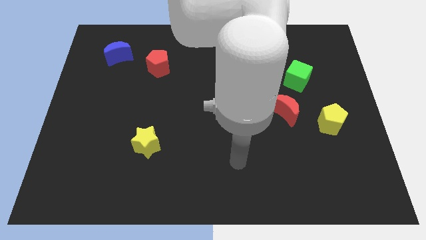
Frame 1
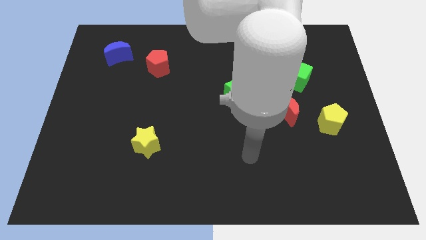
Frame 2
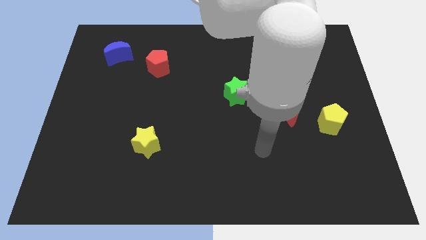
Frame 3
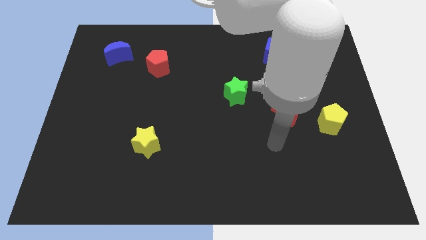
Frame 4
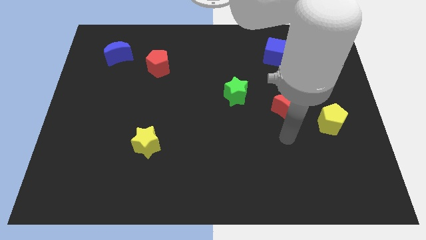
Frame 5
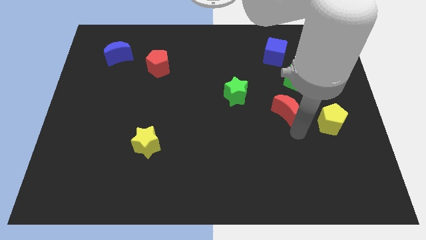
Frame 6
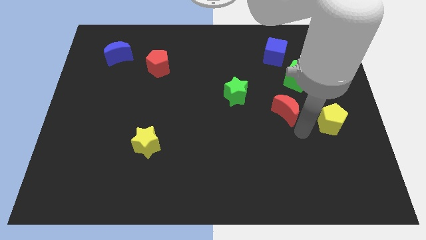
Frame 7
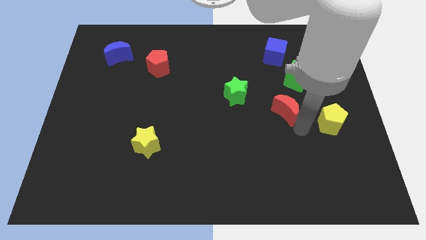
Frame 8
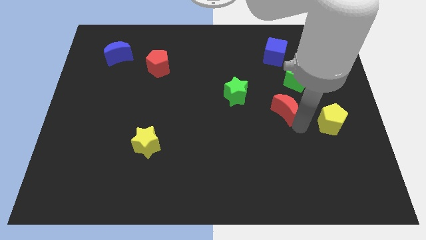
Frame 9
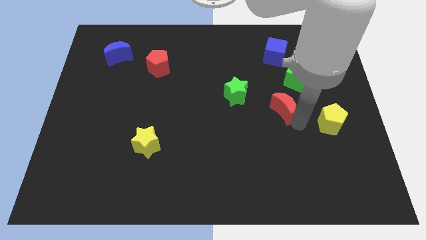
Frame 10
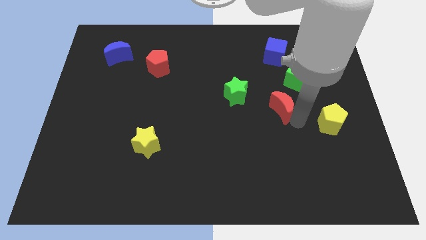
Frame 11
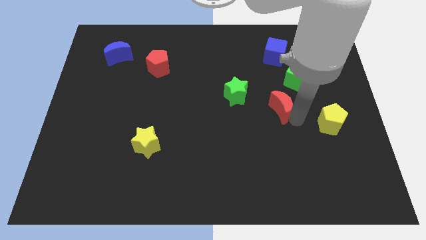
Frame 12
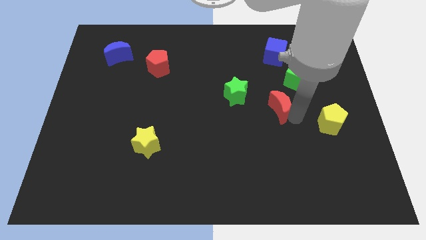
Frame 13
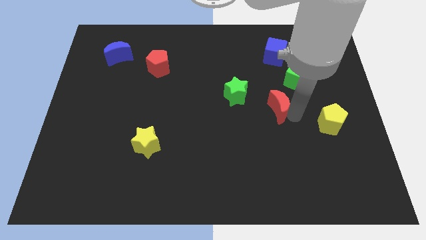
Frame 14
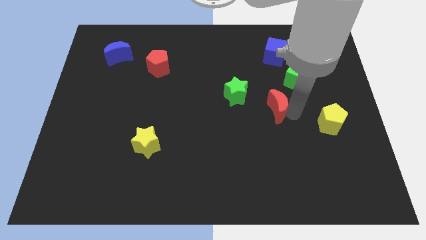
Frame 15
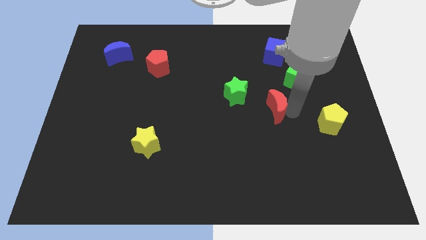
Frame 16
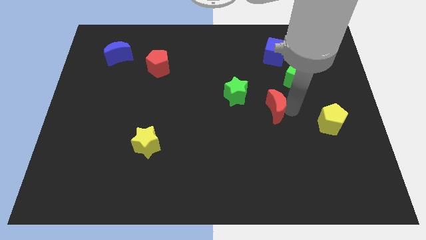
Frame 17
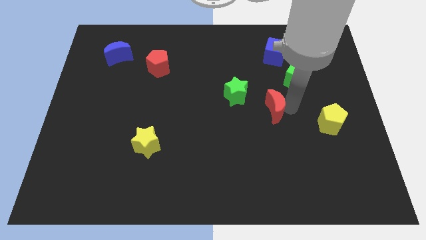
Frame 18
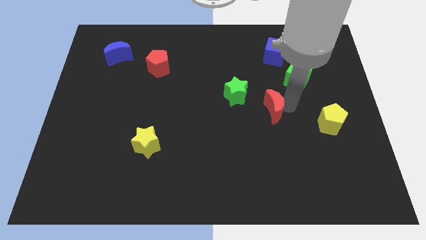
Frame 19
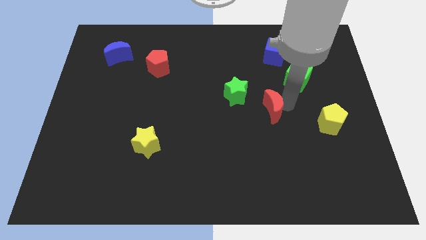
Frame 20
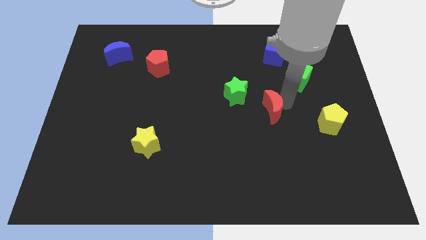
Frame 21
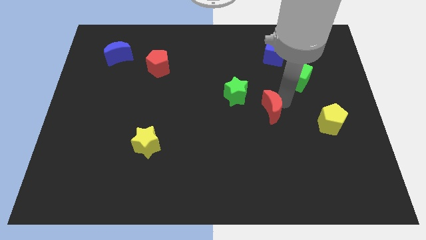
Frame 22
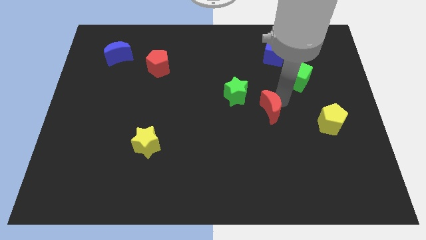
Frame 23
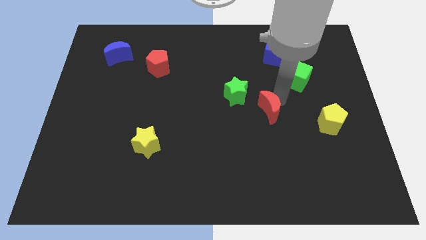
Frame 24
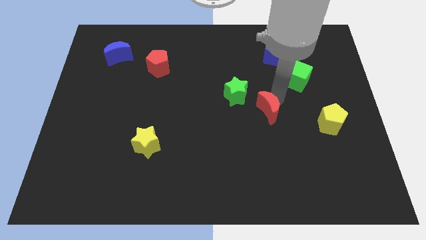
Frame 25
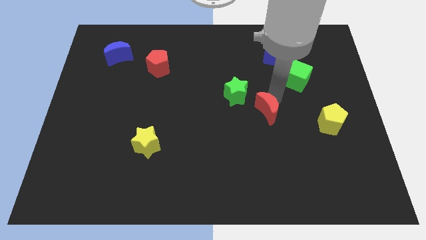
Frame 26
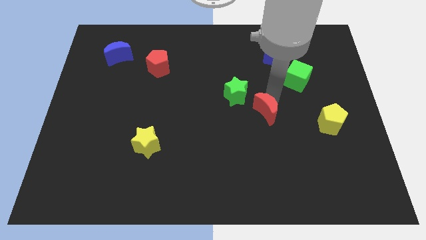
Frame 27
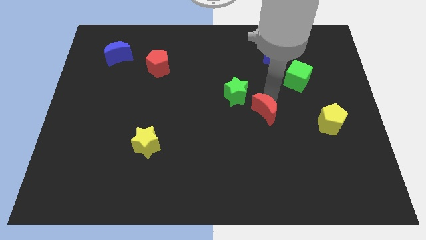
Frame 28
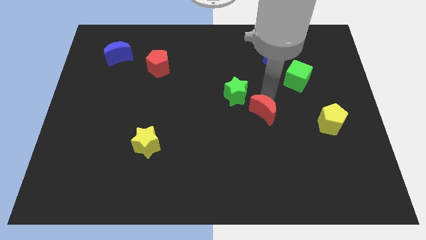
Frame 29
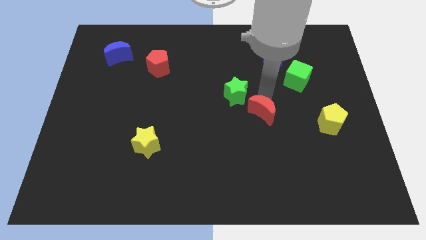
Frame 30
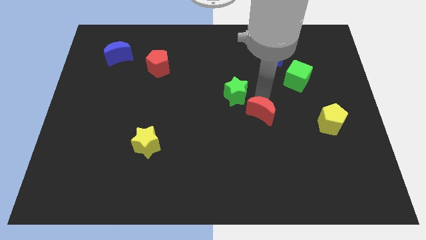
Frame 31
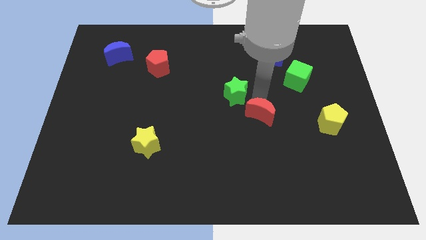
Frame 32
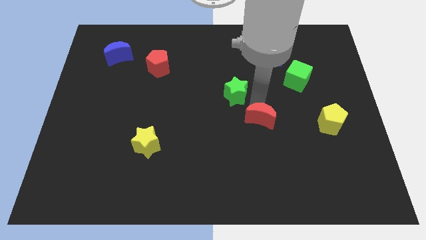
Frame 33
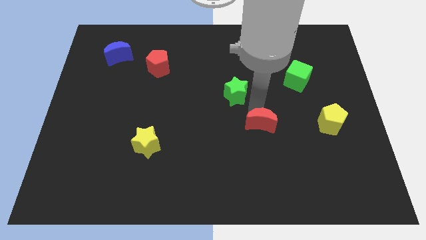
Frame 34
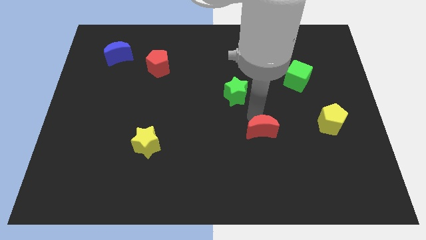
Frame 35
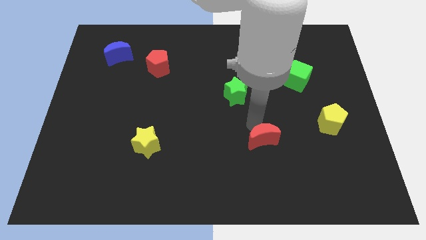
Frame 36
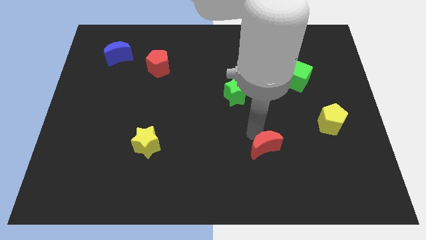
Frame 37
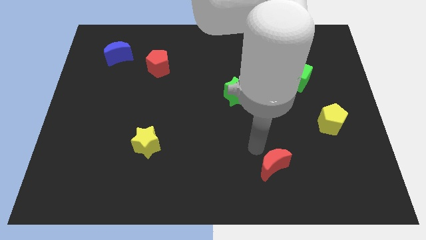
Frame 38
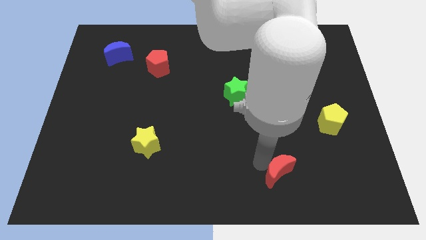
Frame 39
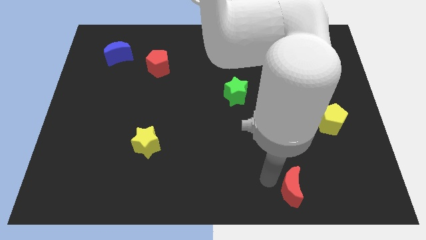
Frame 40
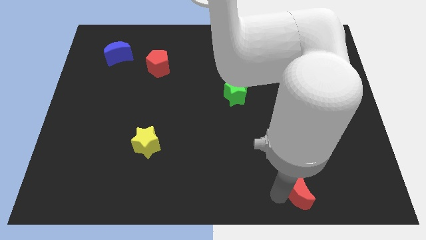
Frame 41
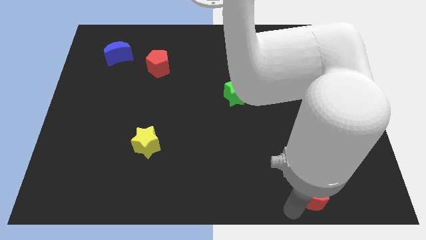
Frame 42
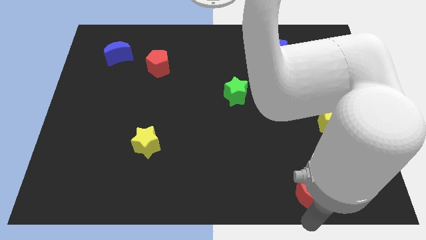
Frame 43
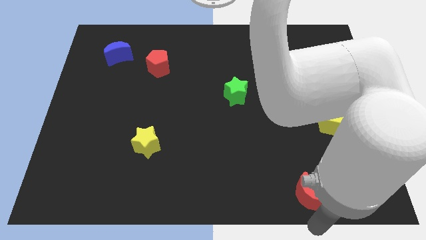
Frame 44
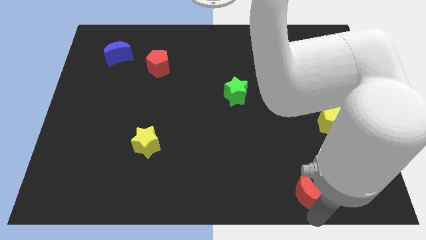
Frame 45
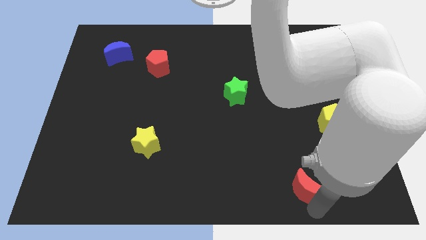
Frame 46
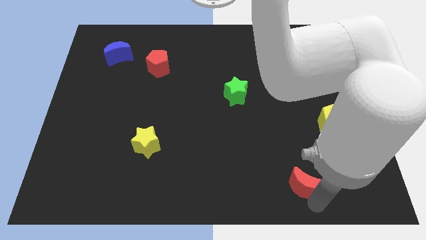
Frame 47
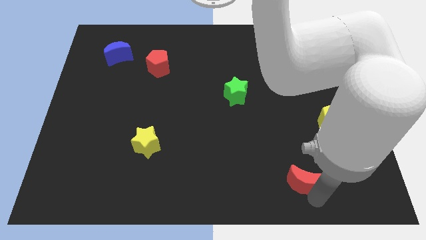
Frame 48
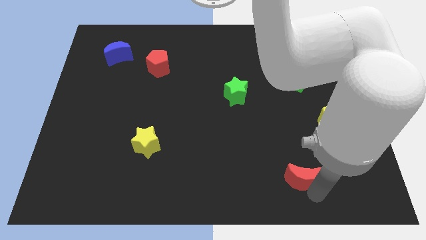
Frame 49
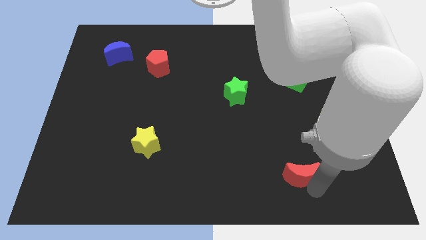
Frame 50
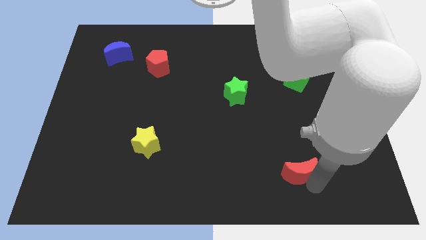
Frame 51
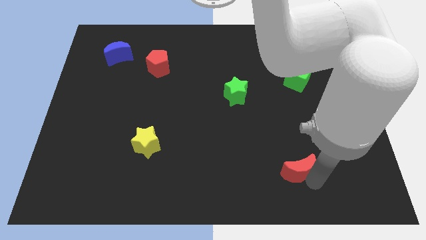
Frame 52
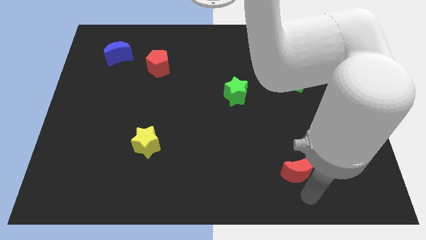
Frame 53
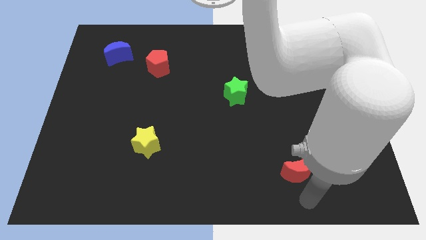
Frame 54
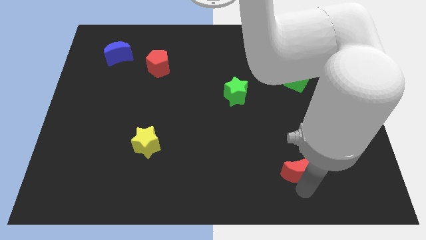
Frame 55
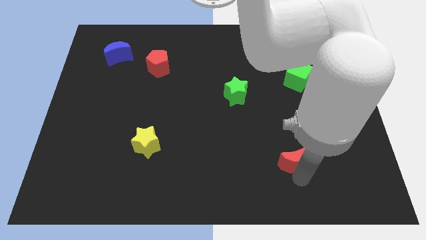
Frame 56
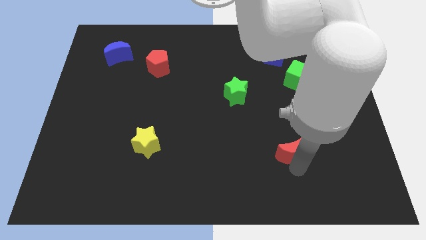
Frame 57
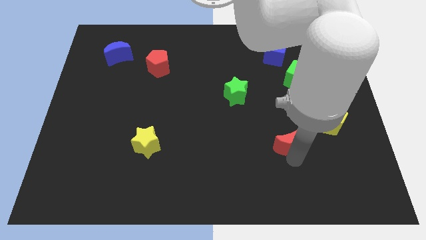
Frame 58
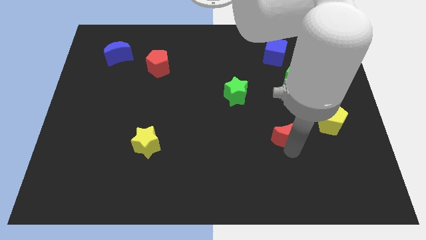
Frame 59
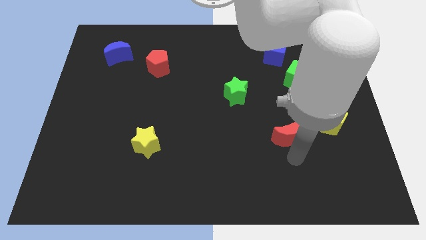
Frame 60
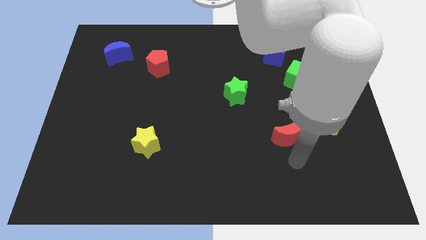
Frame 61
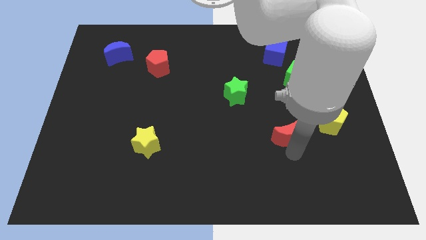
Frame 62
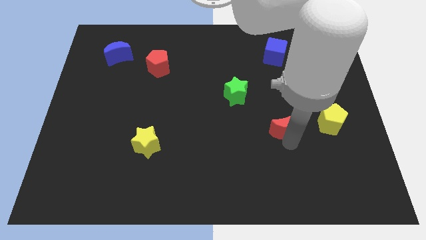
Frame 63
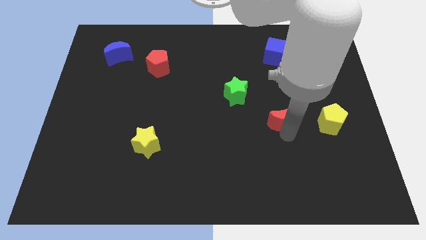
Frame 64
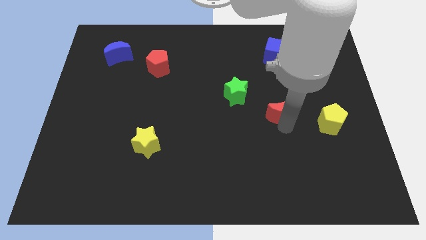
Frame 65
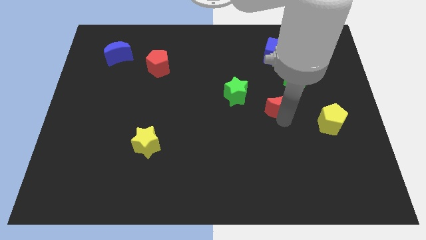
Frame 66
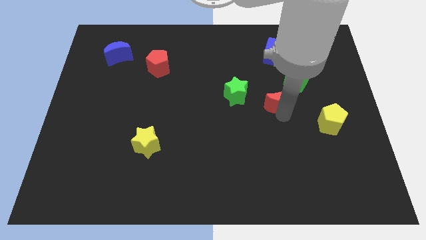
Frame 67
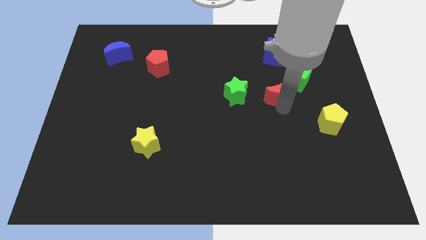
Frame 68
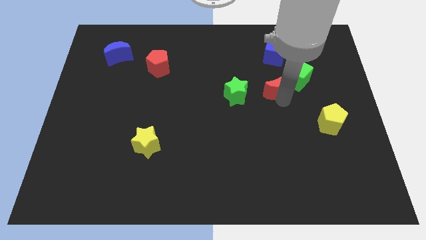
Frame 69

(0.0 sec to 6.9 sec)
move the red moon just left of the green cube
